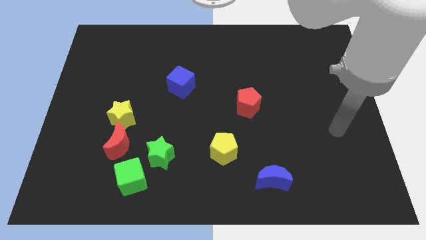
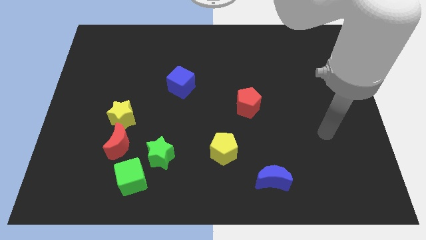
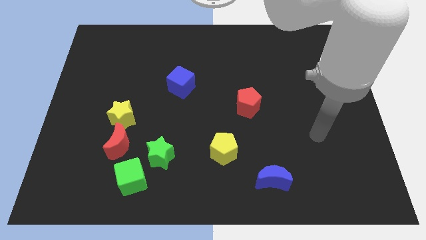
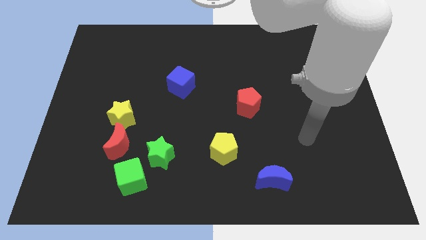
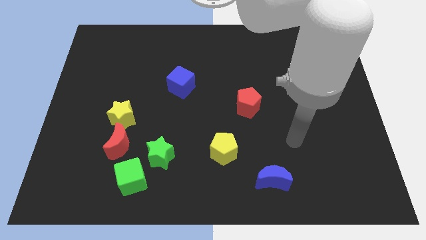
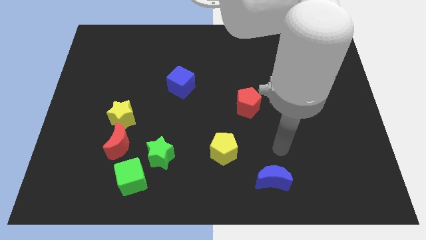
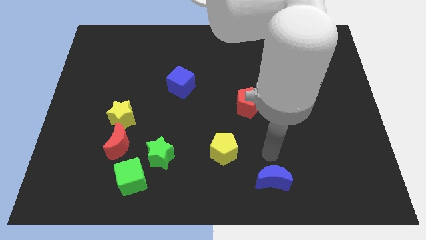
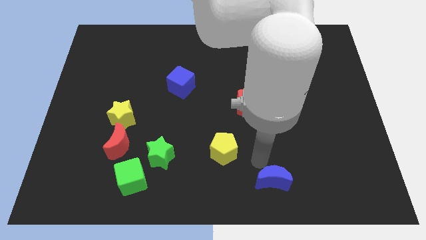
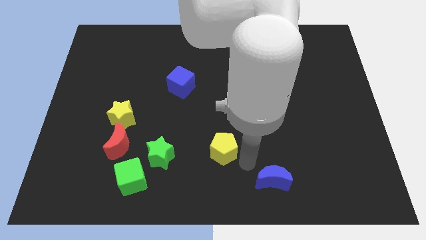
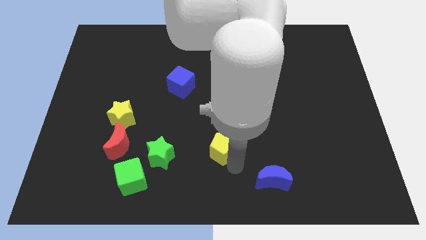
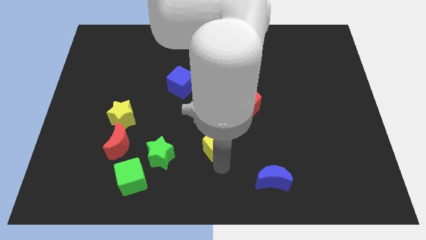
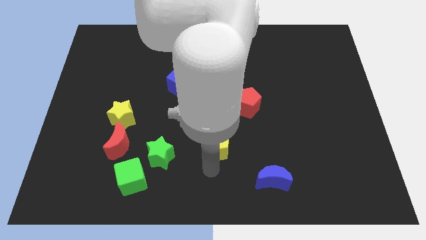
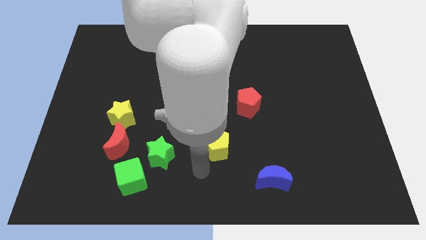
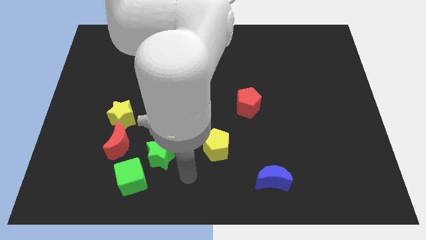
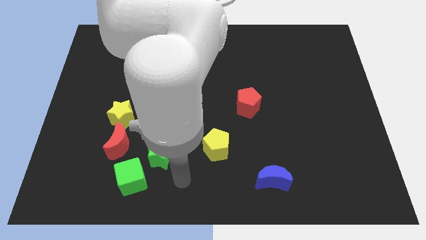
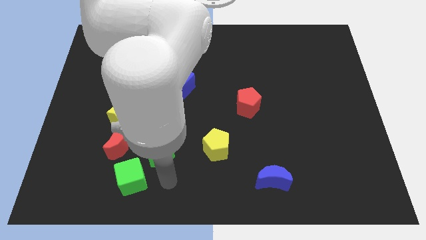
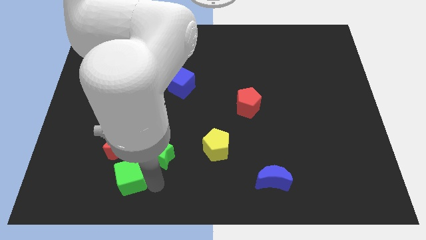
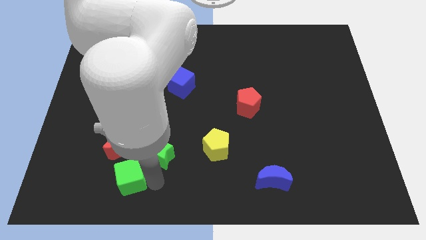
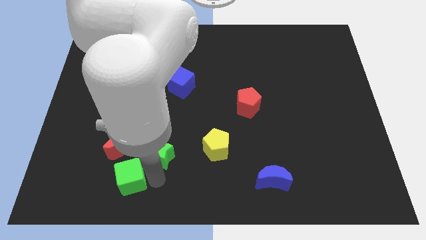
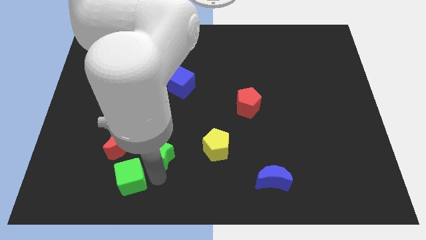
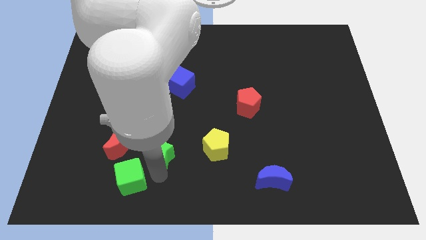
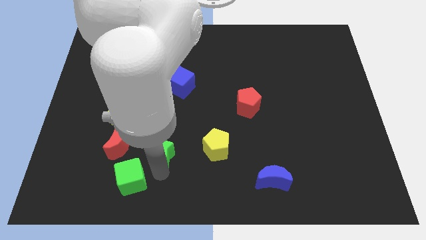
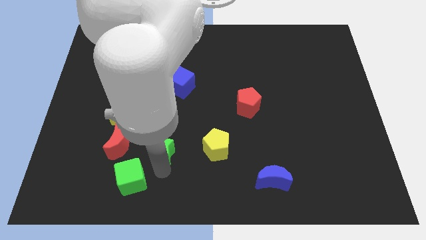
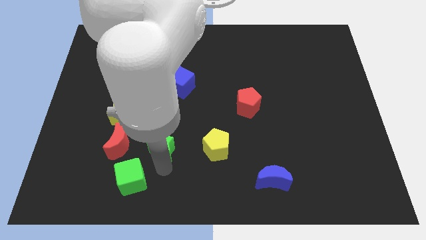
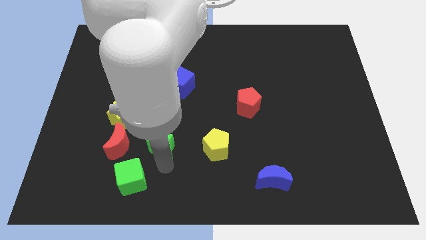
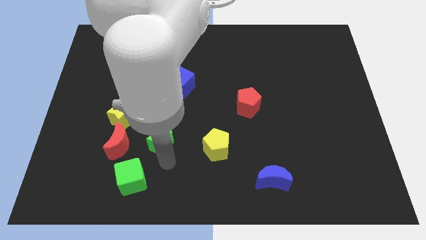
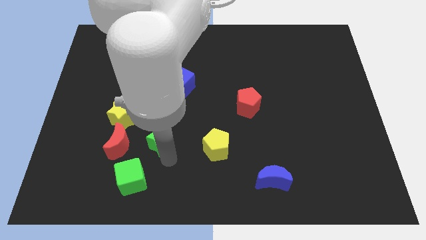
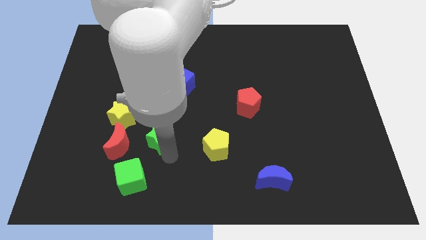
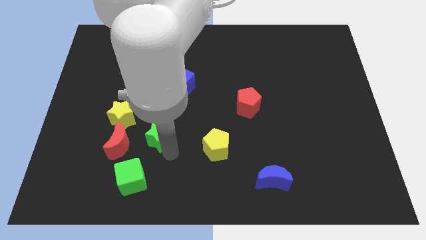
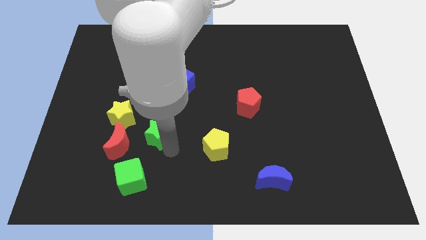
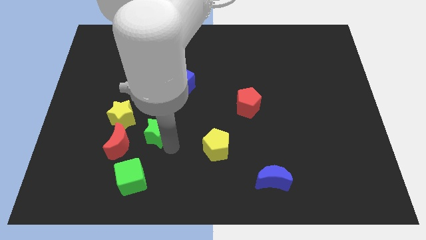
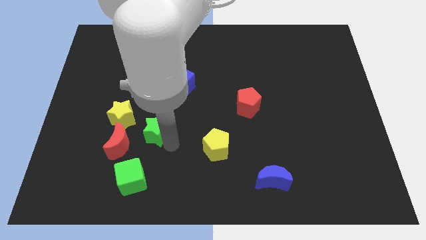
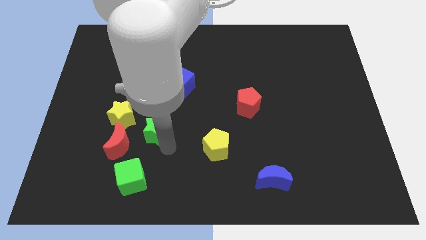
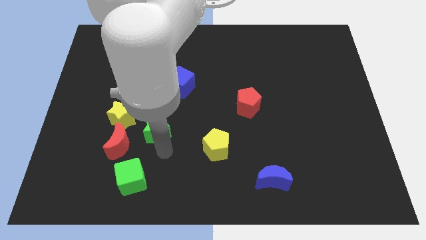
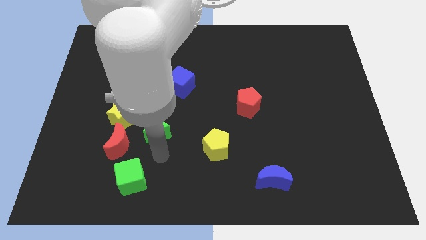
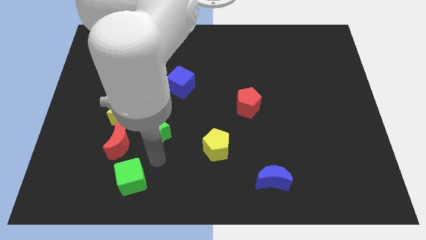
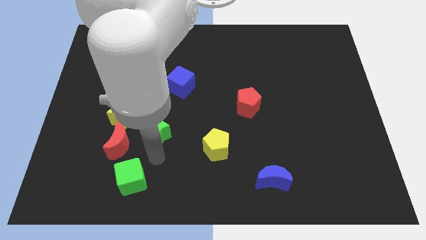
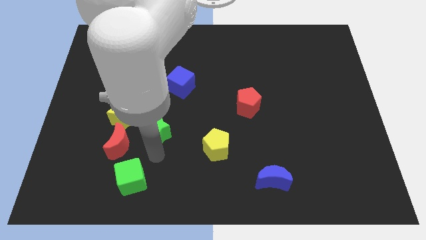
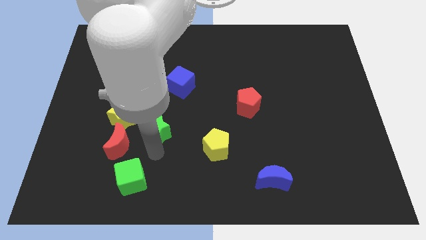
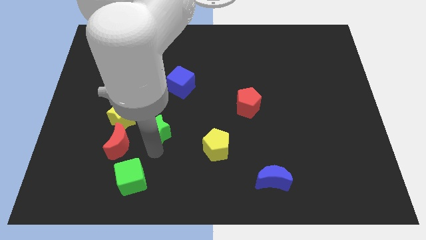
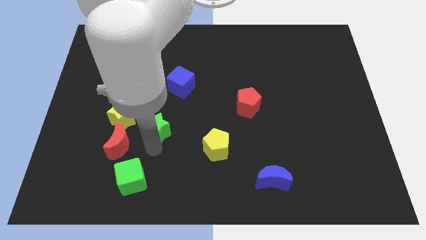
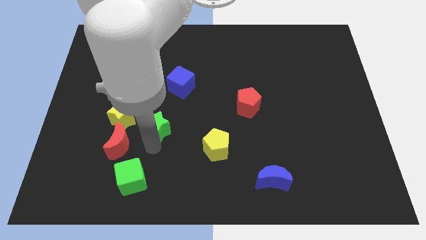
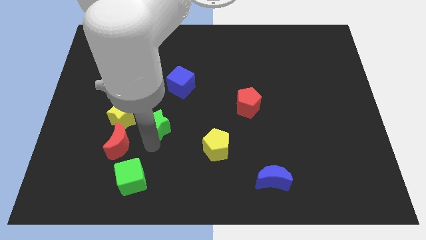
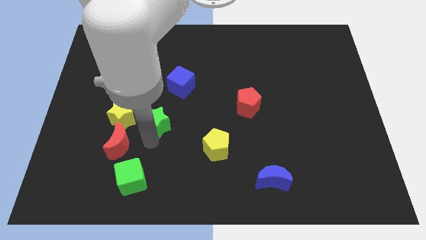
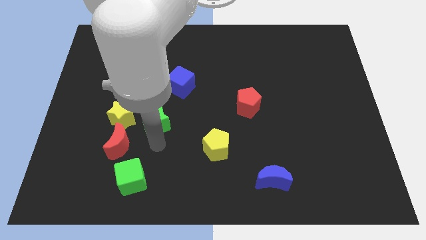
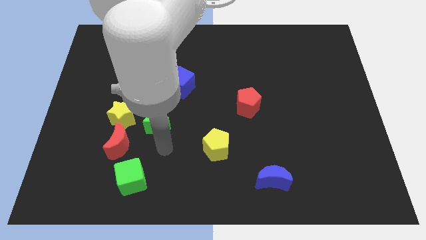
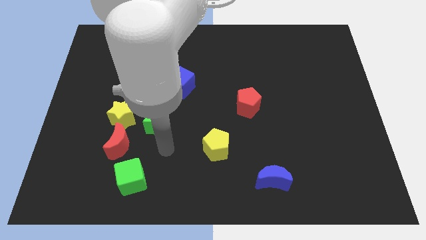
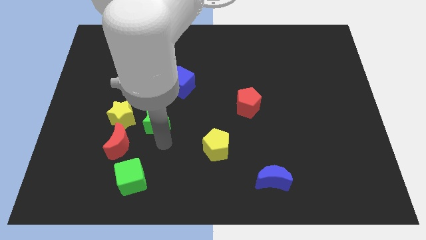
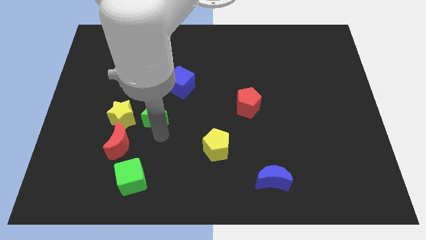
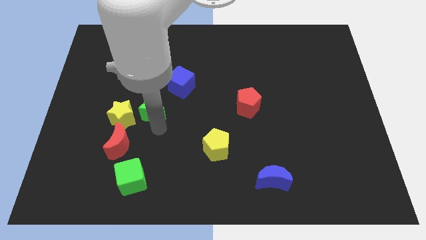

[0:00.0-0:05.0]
put the green star diagonally up and to the right of the yellow star

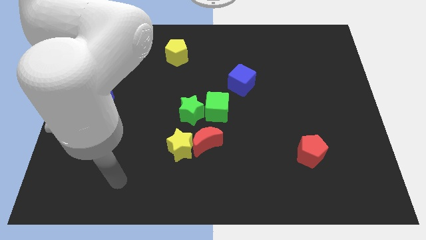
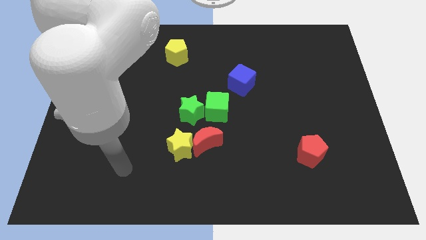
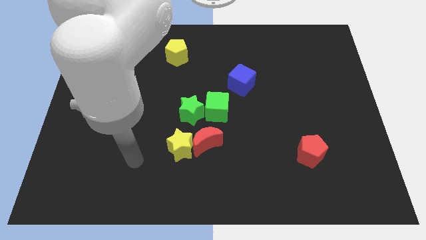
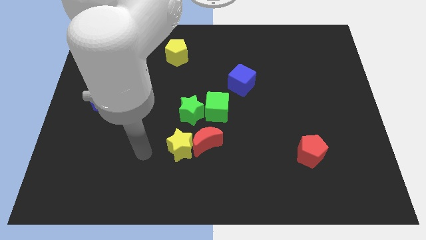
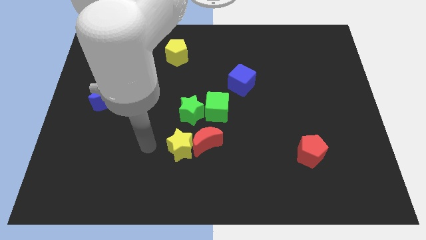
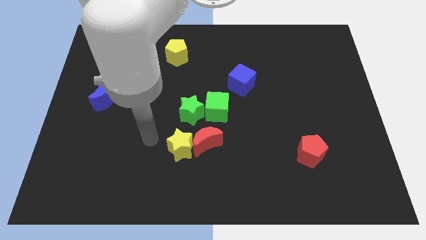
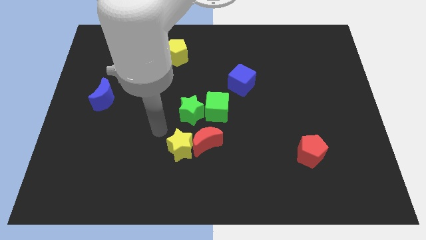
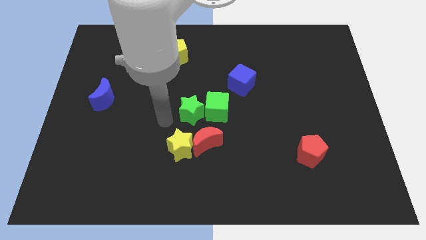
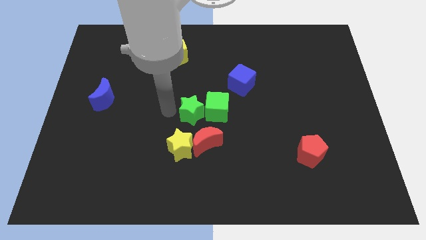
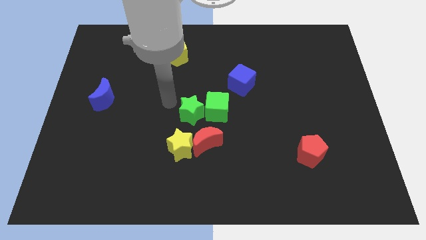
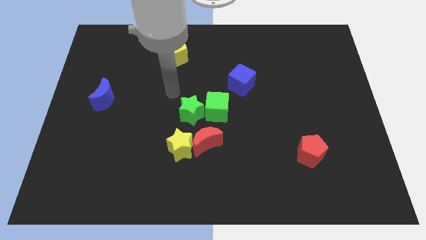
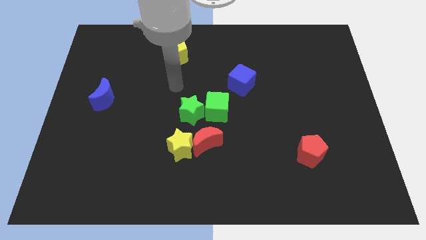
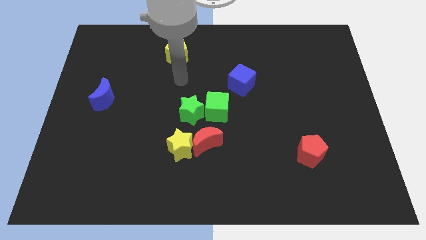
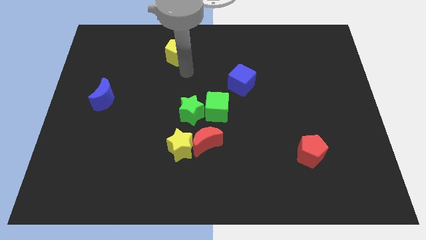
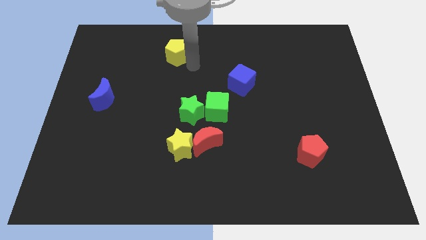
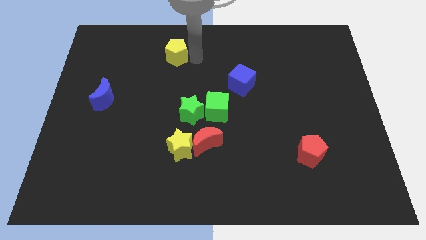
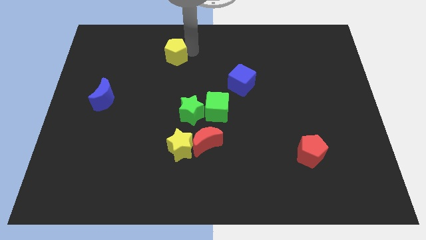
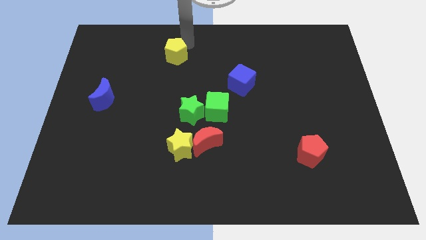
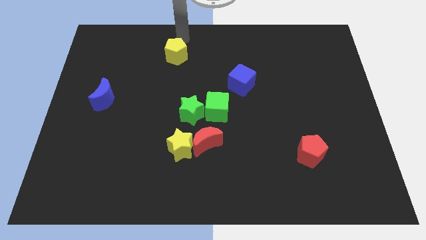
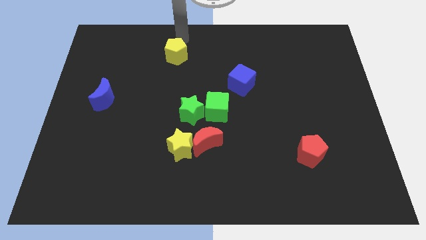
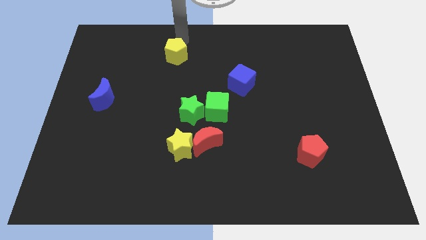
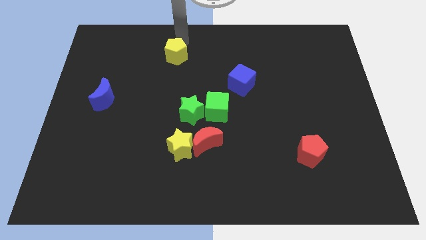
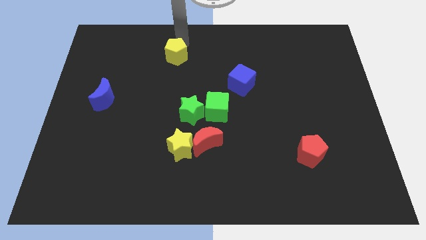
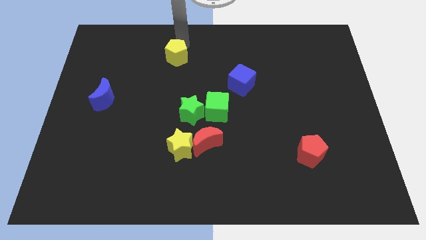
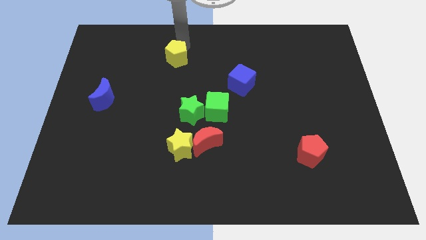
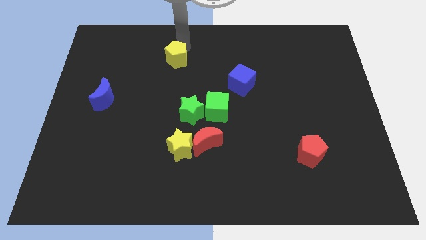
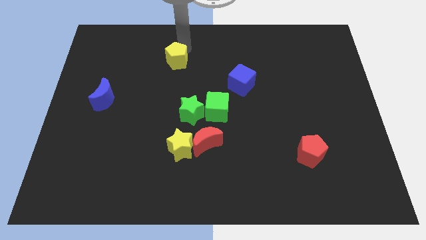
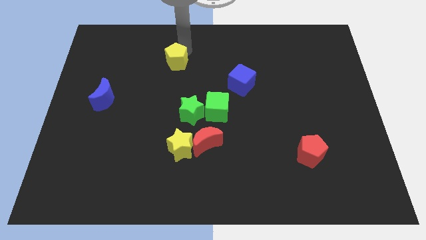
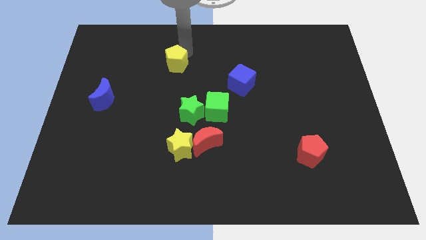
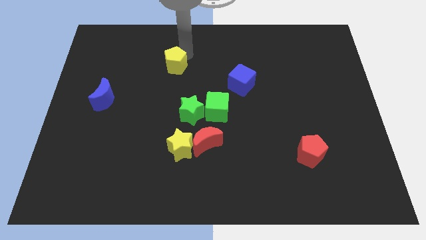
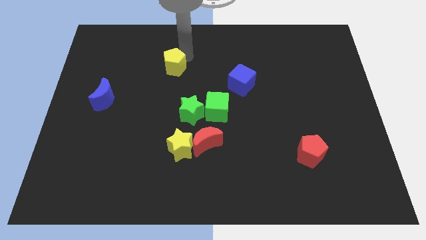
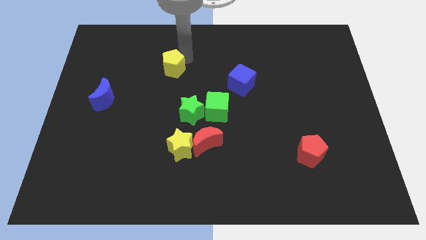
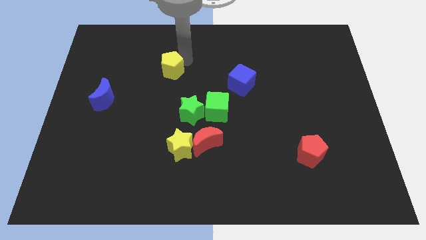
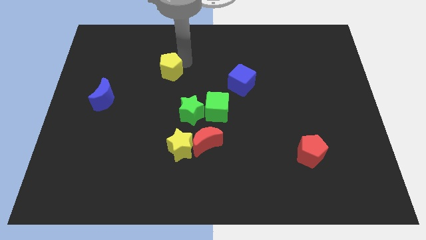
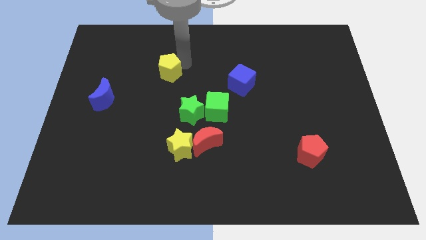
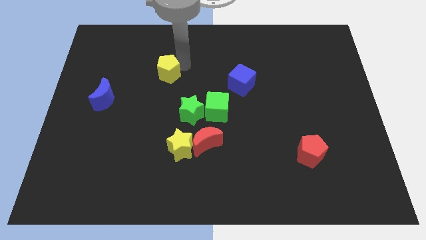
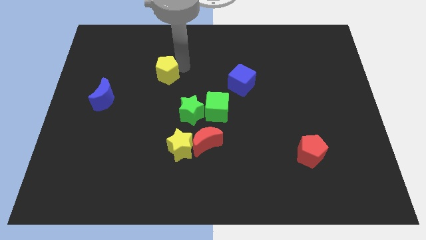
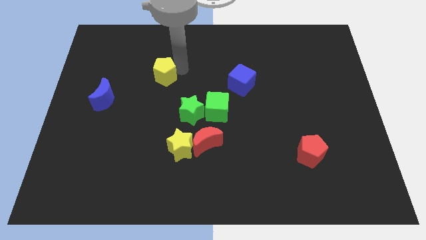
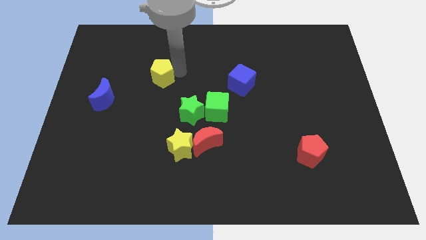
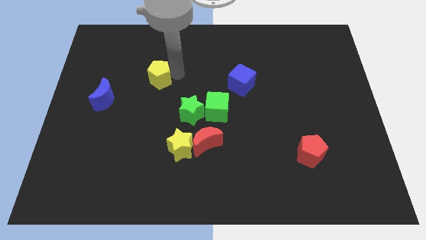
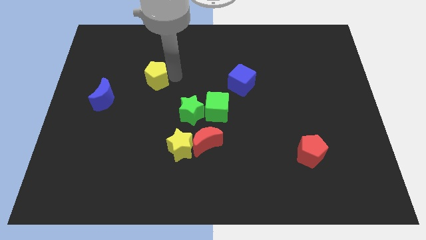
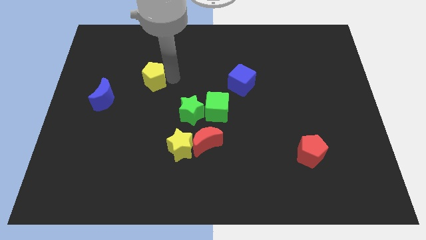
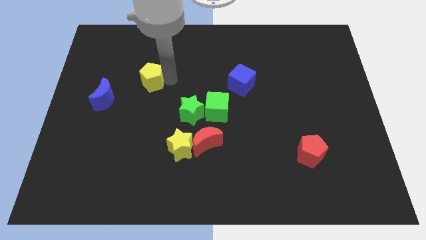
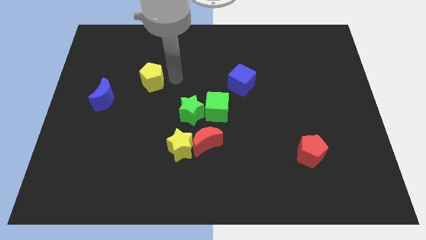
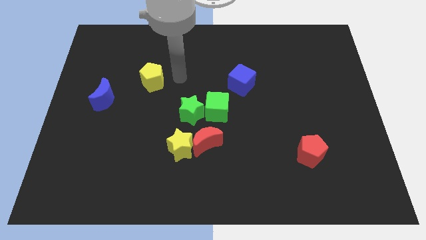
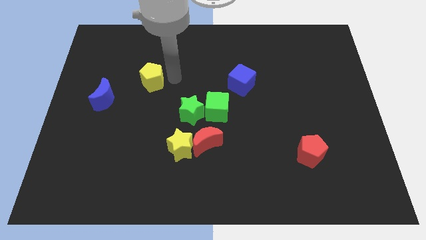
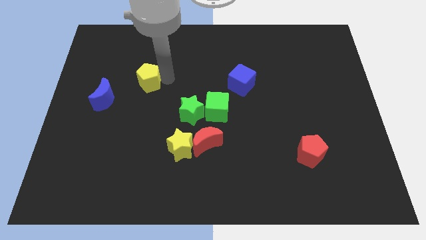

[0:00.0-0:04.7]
slide the yellow pentagon diagonally up and to the right of the blue moon
